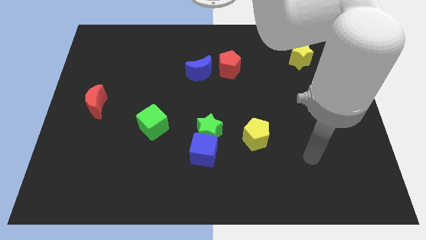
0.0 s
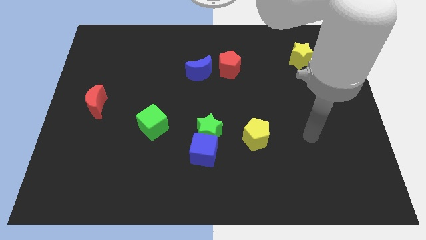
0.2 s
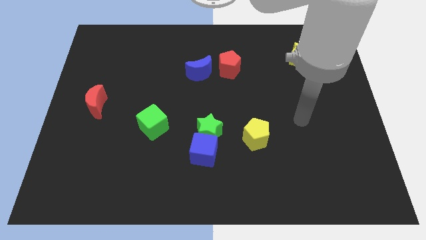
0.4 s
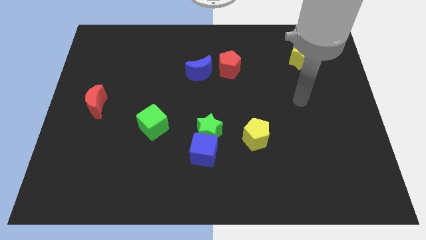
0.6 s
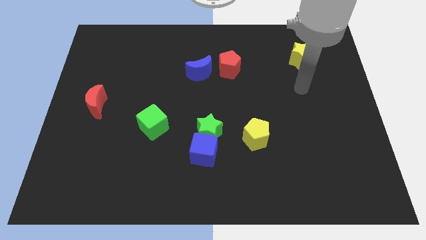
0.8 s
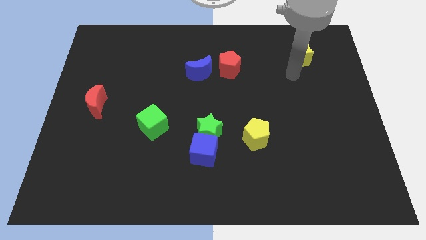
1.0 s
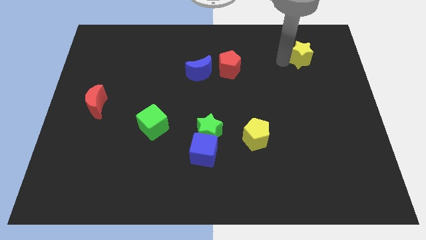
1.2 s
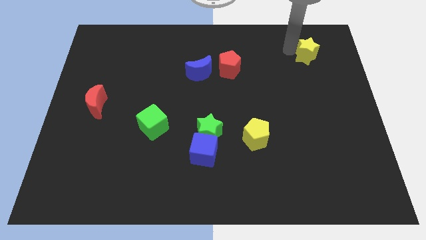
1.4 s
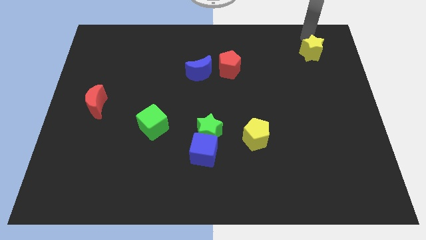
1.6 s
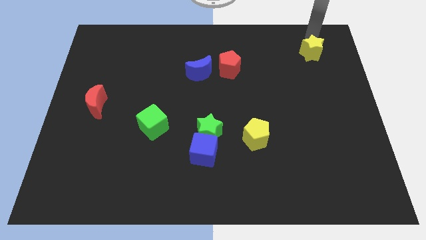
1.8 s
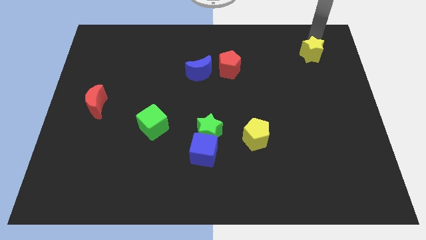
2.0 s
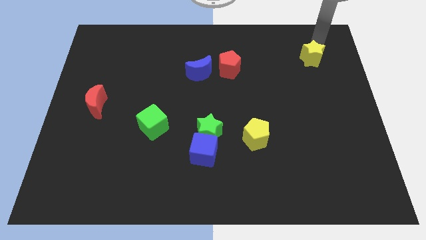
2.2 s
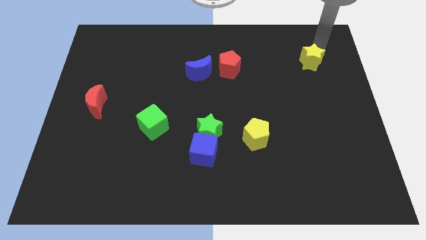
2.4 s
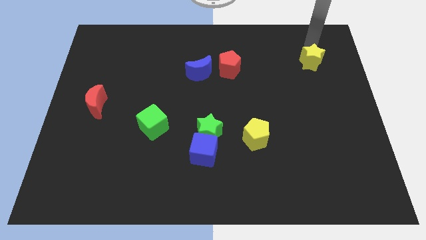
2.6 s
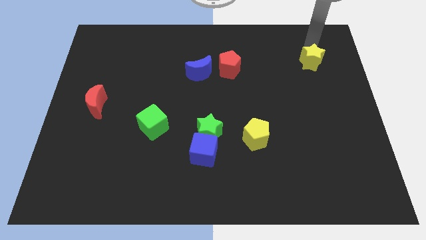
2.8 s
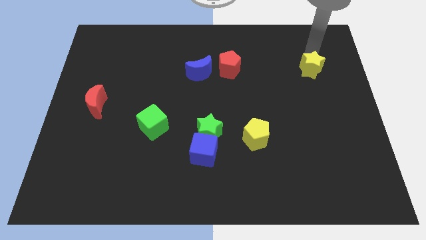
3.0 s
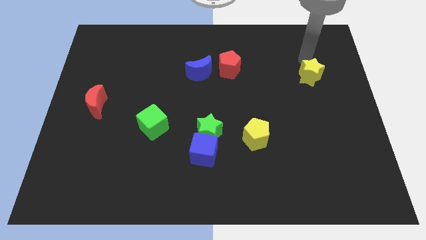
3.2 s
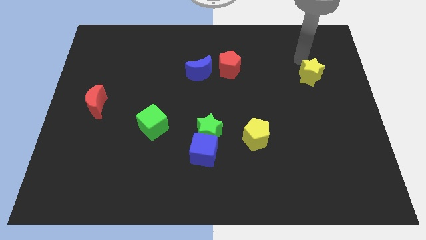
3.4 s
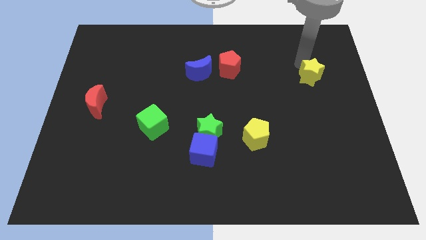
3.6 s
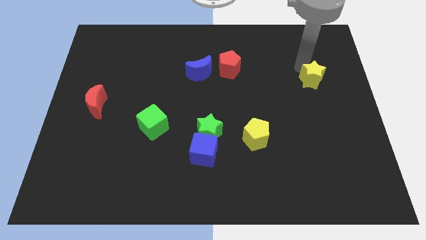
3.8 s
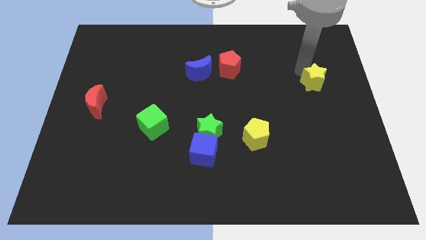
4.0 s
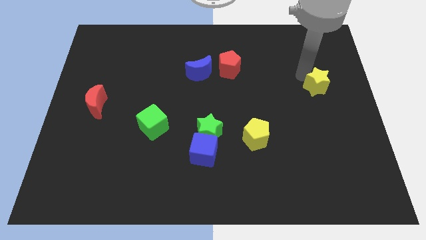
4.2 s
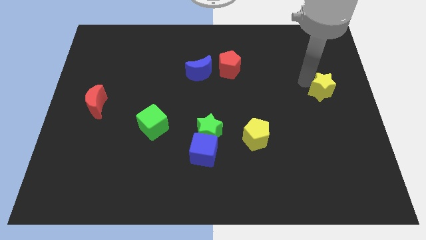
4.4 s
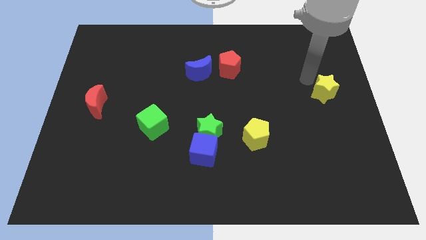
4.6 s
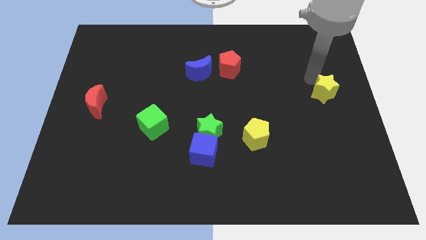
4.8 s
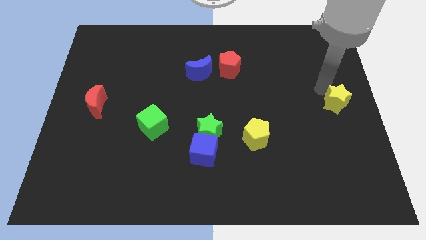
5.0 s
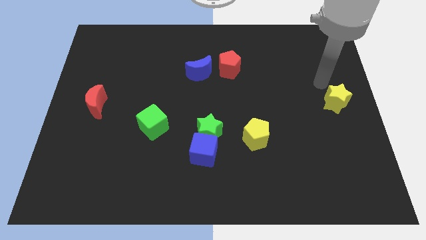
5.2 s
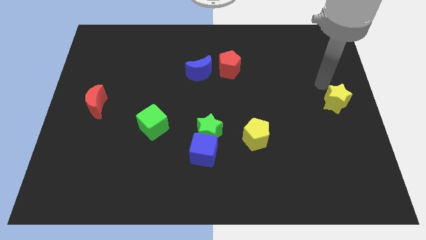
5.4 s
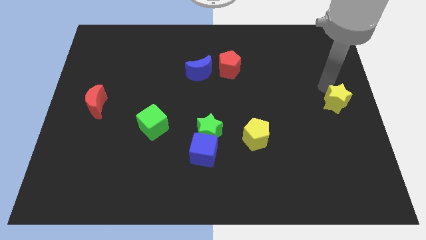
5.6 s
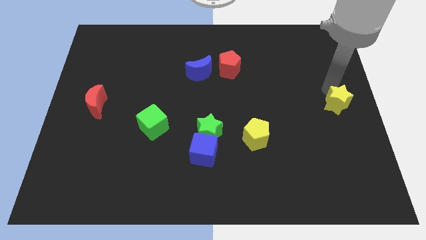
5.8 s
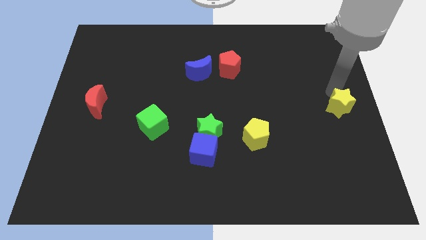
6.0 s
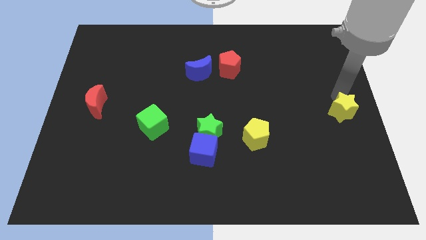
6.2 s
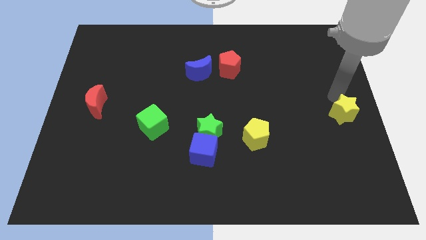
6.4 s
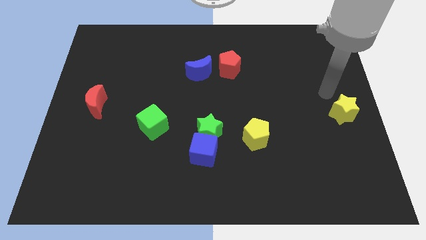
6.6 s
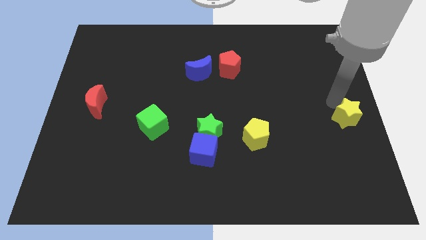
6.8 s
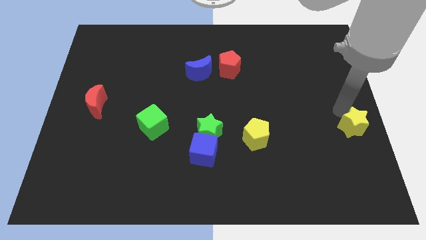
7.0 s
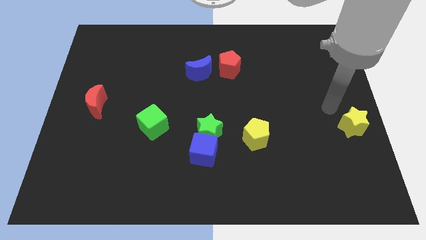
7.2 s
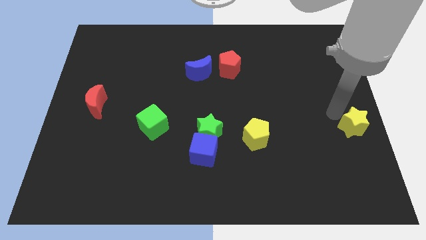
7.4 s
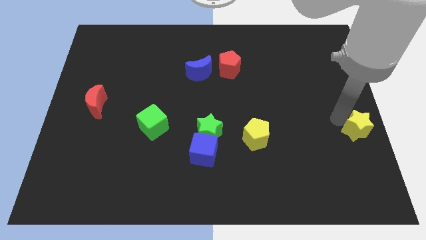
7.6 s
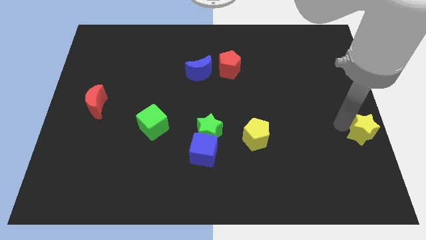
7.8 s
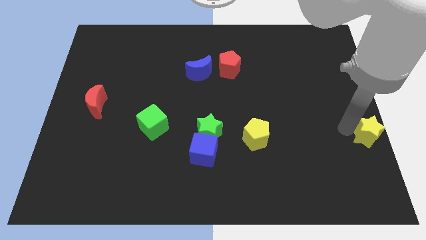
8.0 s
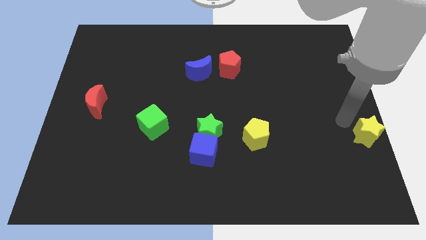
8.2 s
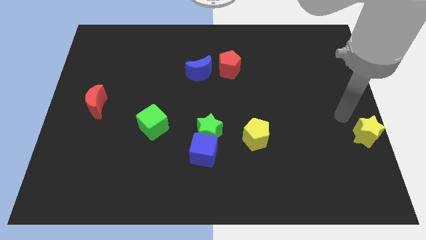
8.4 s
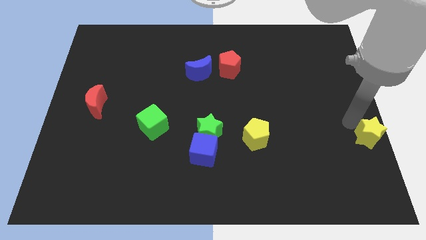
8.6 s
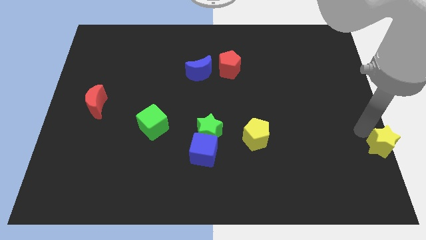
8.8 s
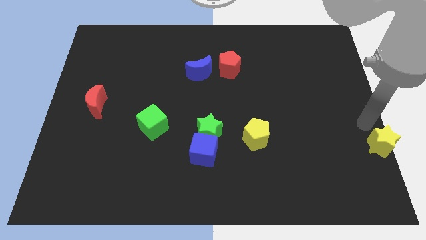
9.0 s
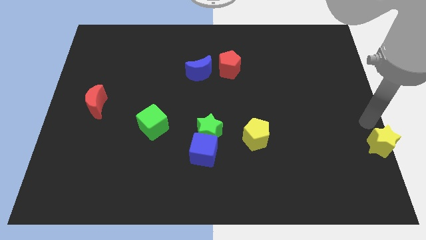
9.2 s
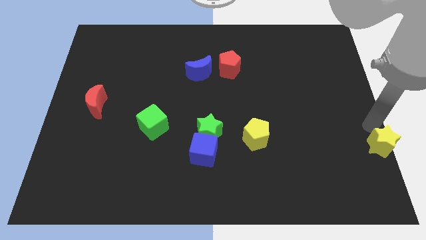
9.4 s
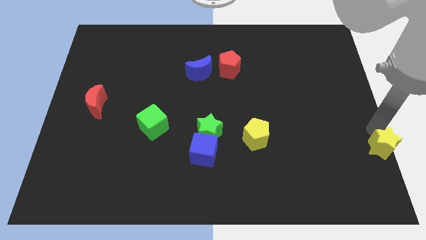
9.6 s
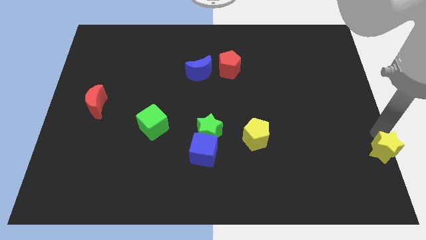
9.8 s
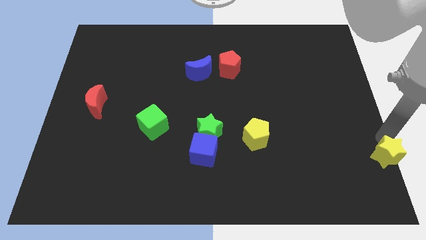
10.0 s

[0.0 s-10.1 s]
move the yellow star to the bottom right

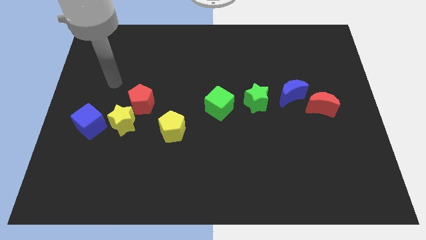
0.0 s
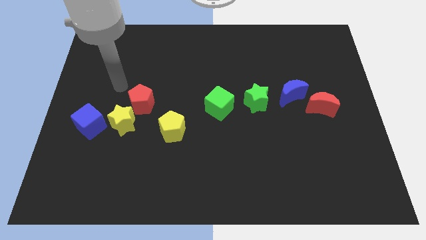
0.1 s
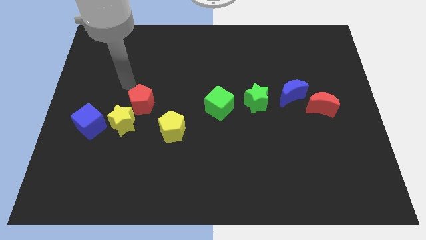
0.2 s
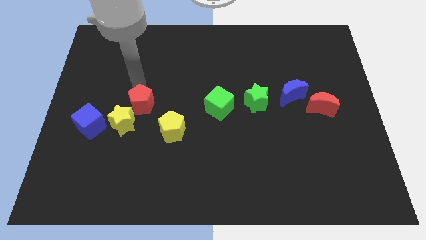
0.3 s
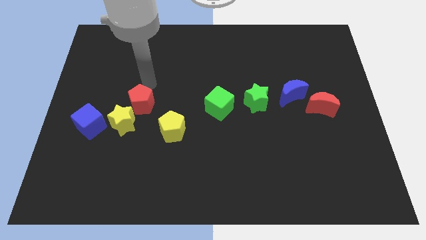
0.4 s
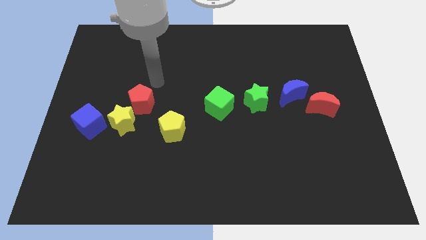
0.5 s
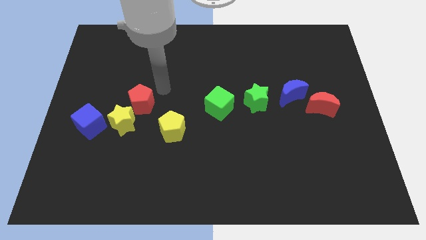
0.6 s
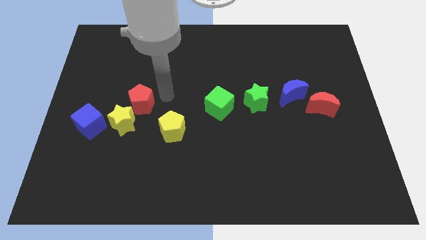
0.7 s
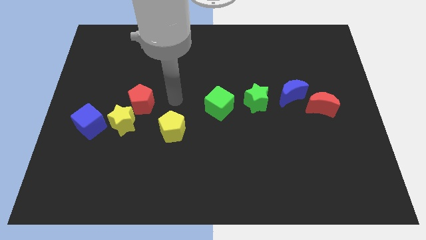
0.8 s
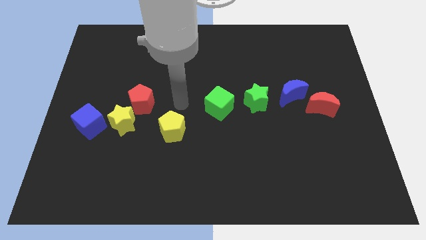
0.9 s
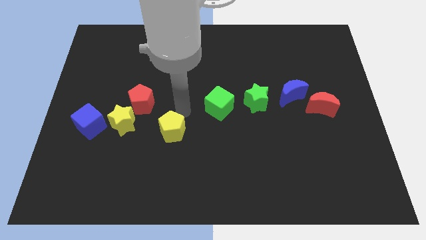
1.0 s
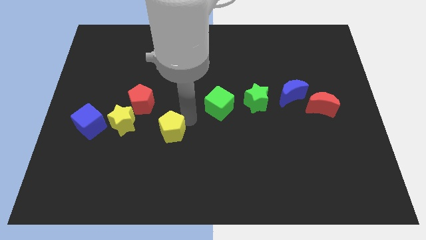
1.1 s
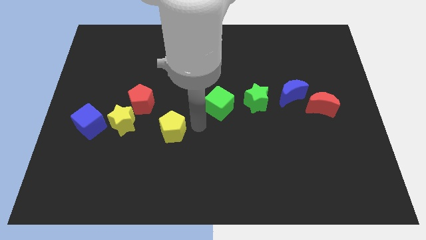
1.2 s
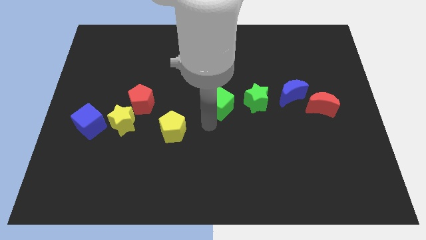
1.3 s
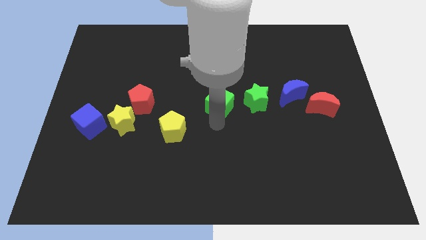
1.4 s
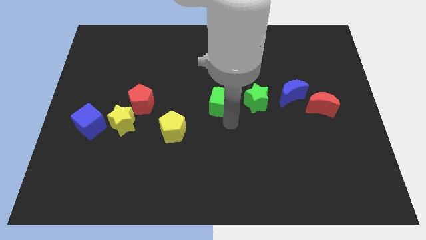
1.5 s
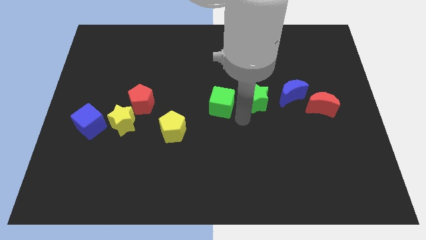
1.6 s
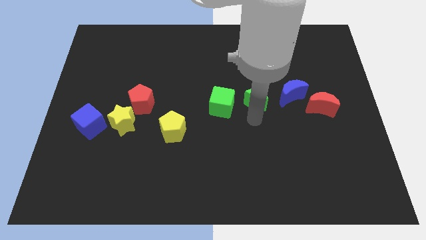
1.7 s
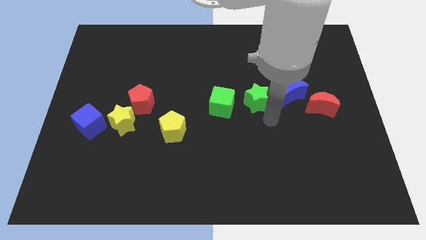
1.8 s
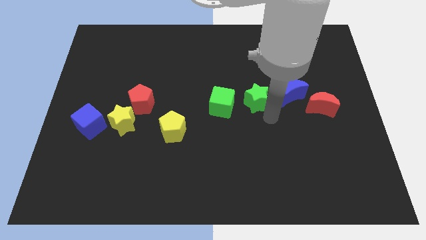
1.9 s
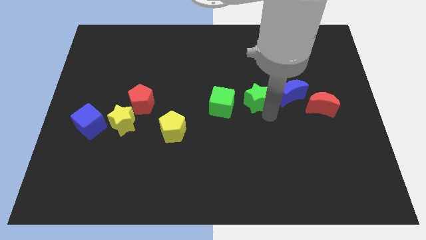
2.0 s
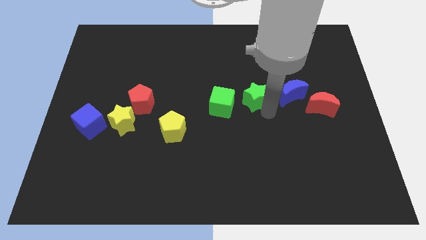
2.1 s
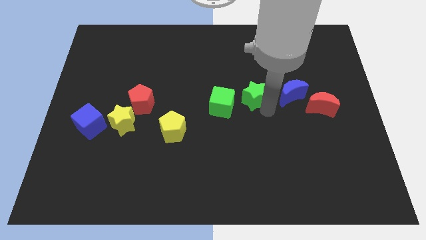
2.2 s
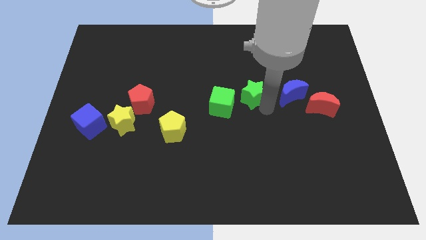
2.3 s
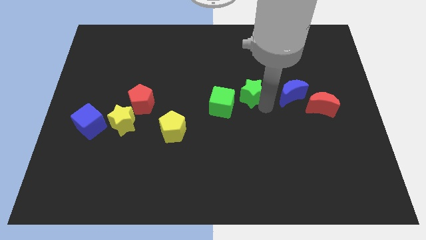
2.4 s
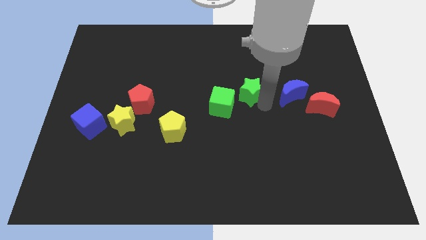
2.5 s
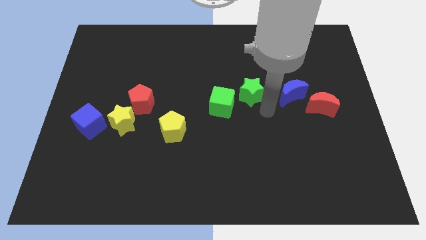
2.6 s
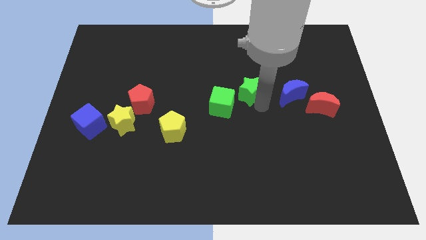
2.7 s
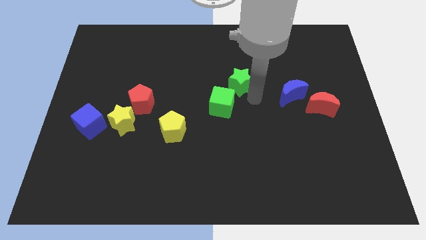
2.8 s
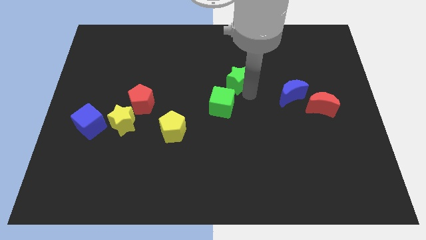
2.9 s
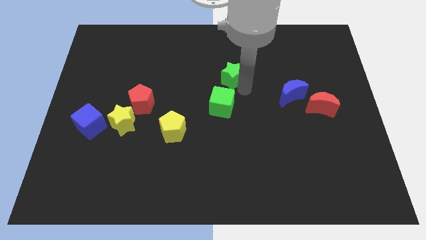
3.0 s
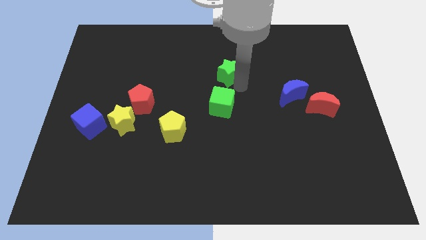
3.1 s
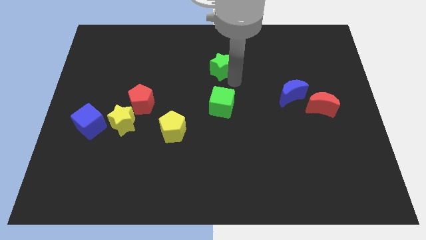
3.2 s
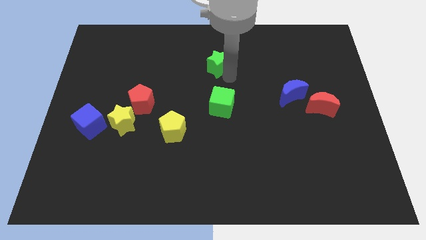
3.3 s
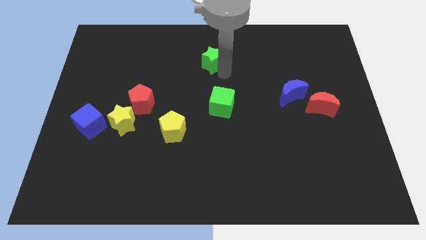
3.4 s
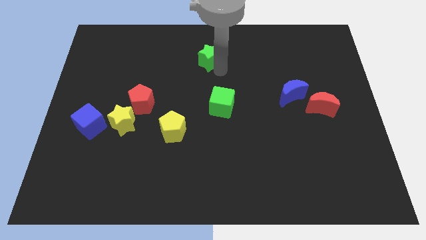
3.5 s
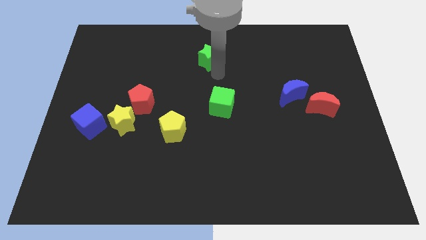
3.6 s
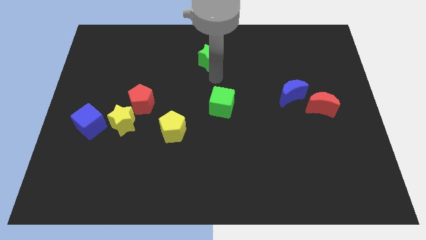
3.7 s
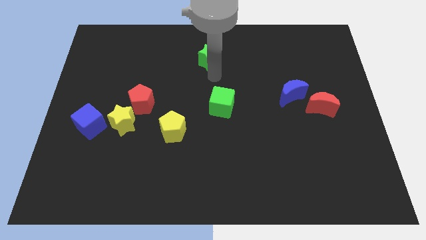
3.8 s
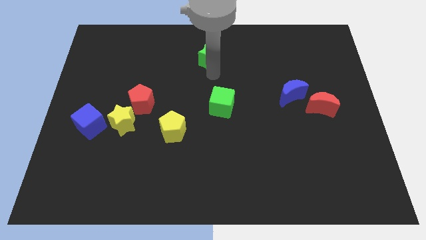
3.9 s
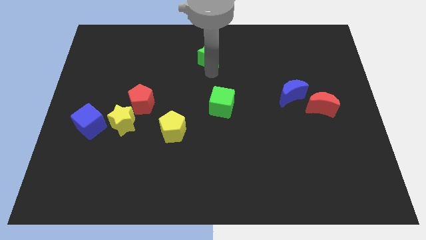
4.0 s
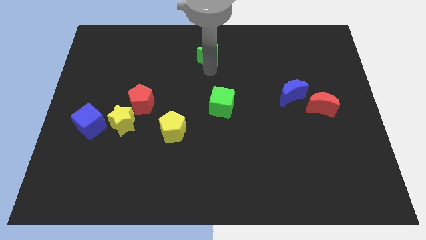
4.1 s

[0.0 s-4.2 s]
slide the green star to the towards your base
